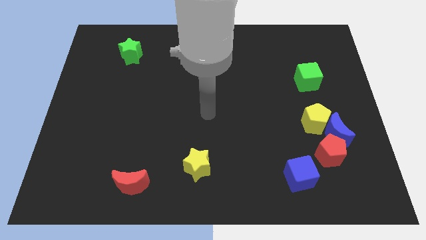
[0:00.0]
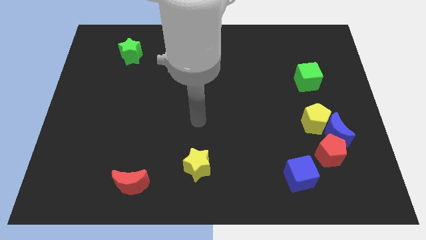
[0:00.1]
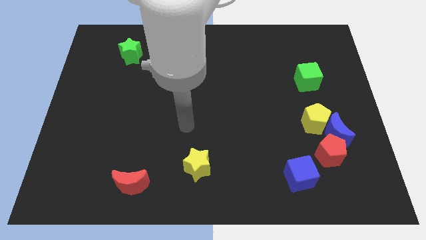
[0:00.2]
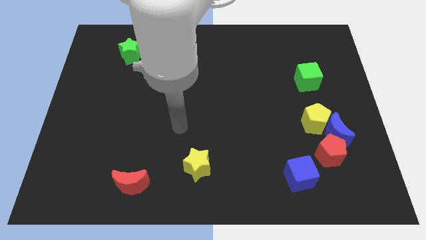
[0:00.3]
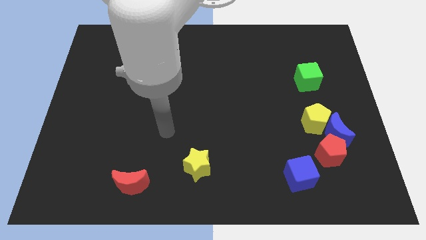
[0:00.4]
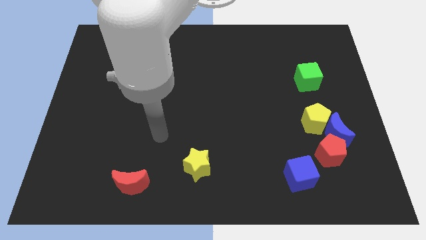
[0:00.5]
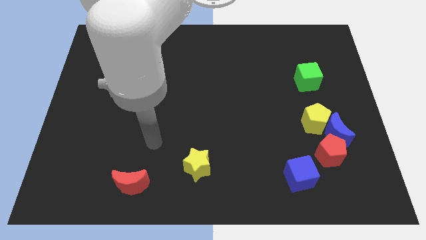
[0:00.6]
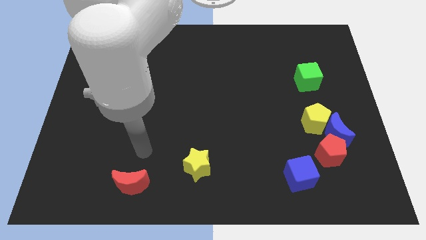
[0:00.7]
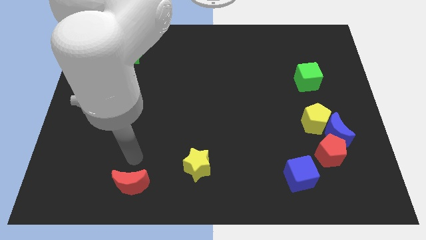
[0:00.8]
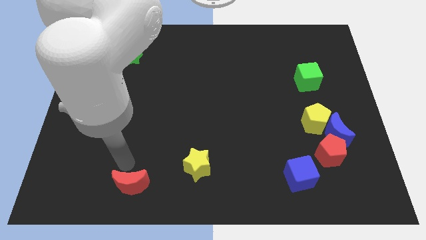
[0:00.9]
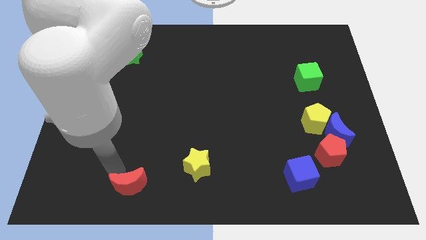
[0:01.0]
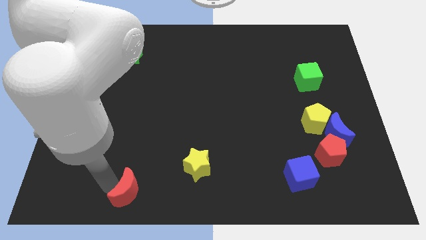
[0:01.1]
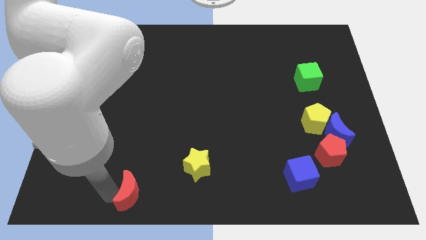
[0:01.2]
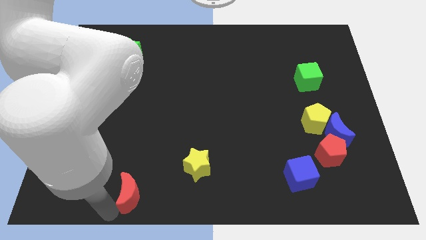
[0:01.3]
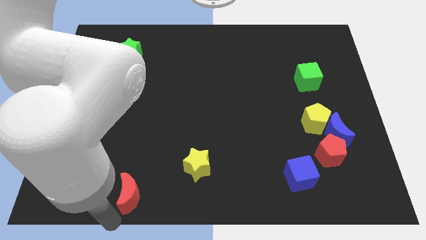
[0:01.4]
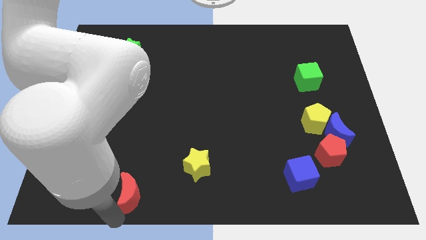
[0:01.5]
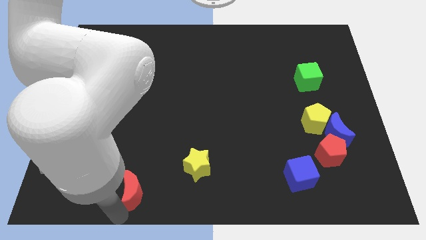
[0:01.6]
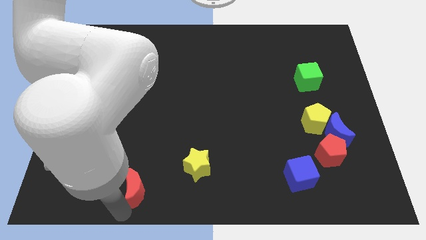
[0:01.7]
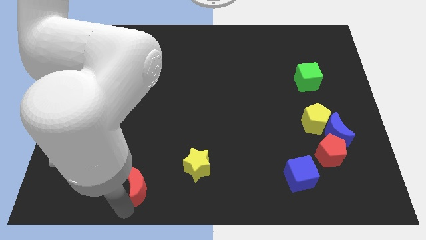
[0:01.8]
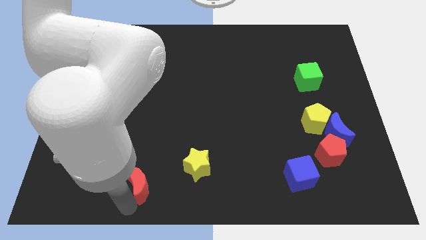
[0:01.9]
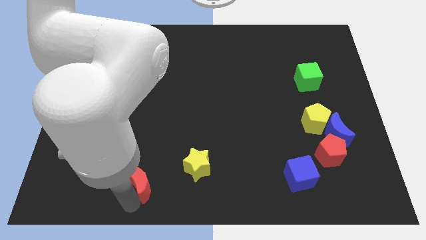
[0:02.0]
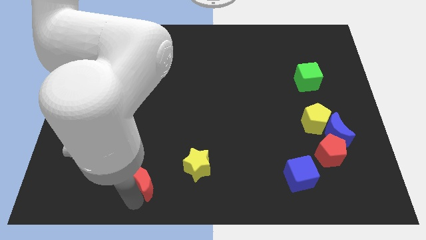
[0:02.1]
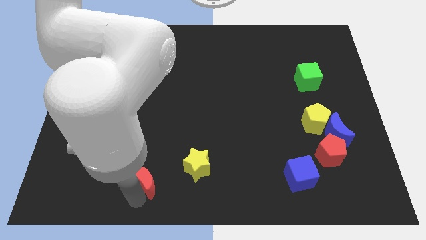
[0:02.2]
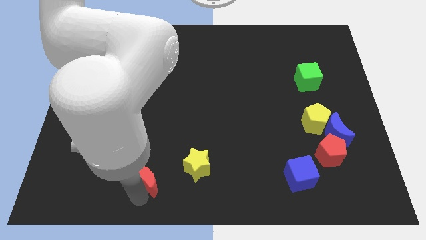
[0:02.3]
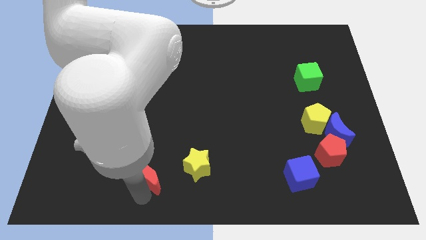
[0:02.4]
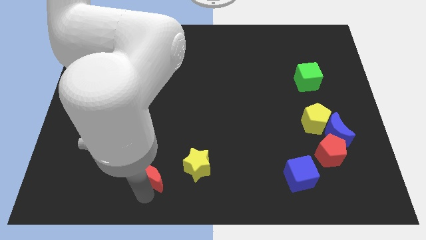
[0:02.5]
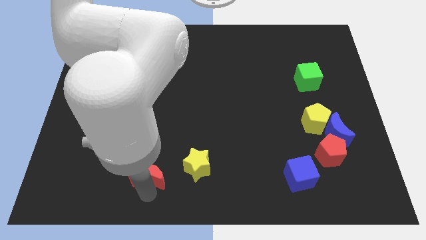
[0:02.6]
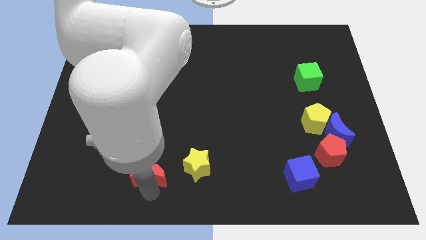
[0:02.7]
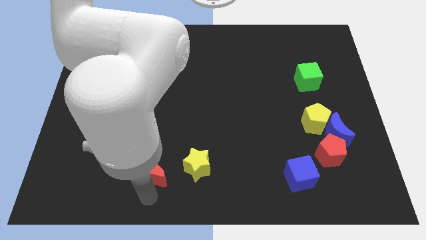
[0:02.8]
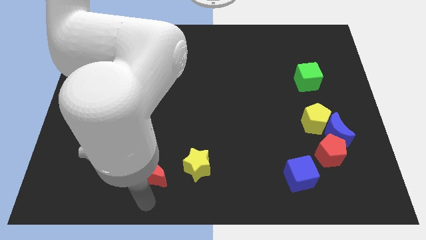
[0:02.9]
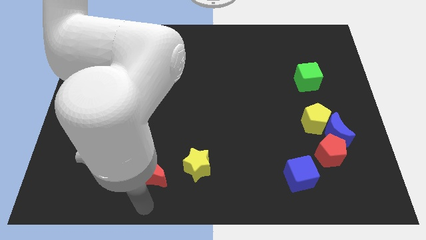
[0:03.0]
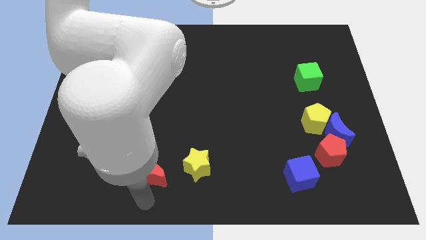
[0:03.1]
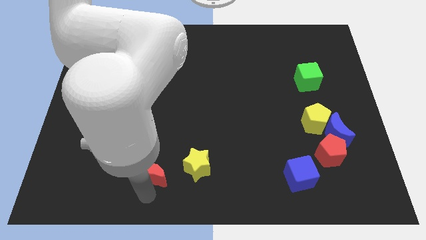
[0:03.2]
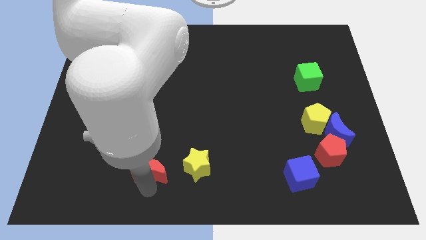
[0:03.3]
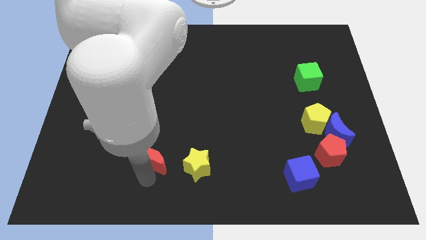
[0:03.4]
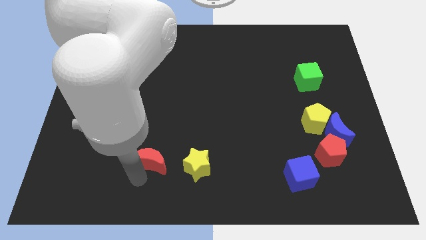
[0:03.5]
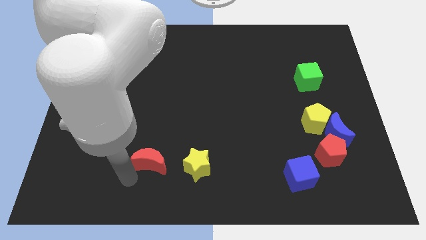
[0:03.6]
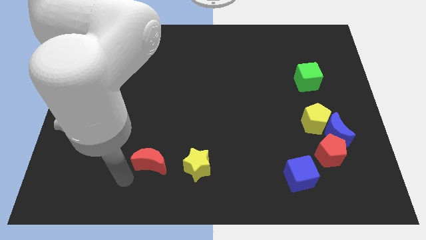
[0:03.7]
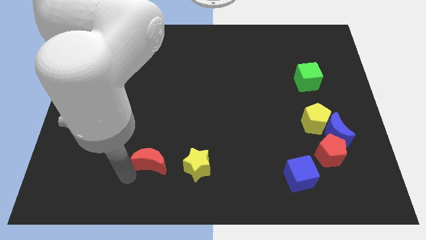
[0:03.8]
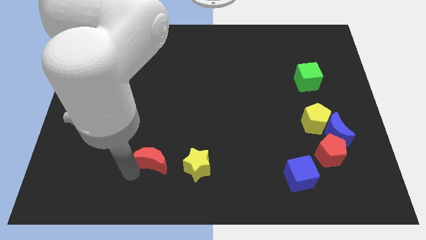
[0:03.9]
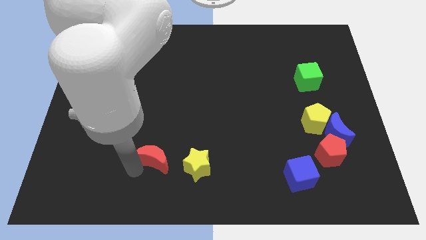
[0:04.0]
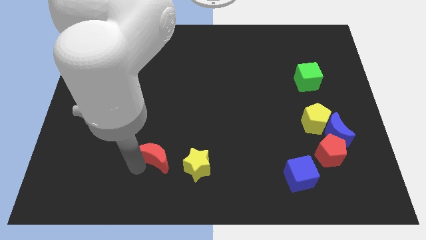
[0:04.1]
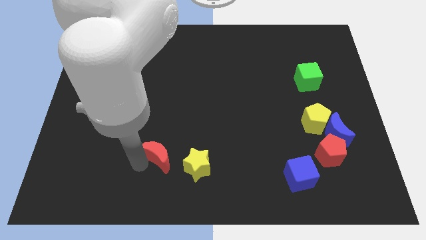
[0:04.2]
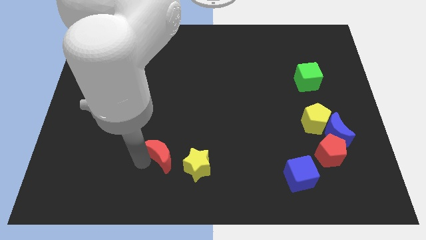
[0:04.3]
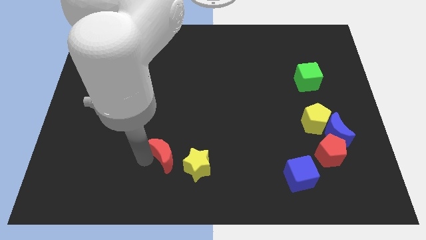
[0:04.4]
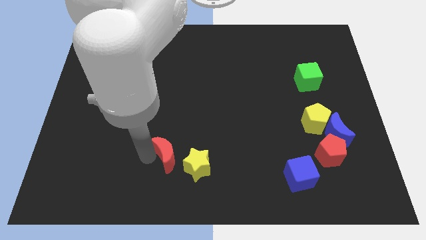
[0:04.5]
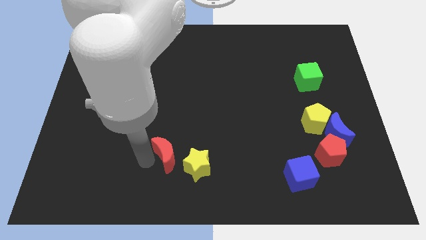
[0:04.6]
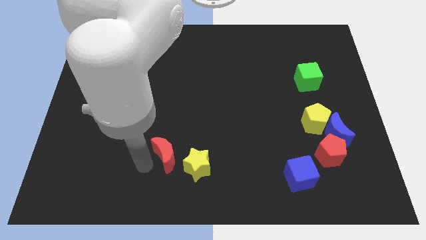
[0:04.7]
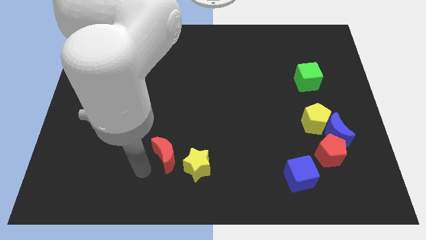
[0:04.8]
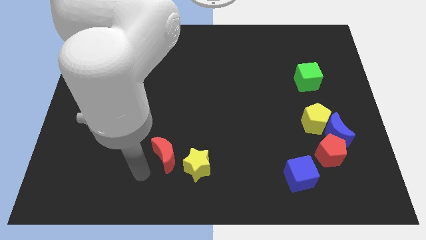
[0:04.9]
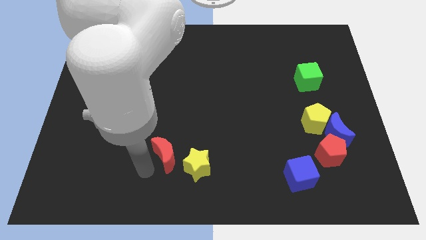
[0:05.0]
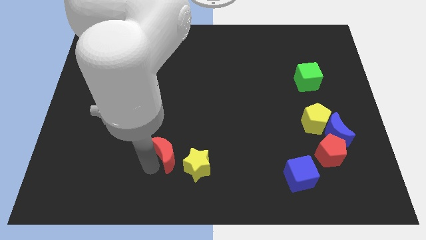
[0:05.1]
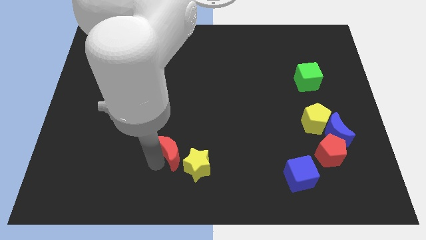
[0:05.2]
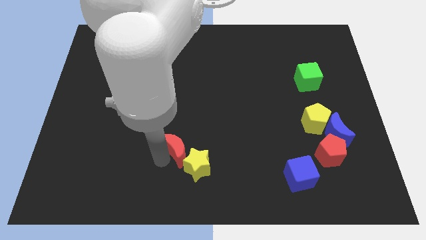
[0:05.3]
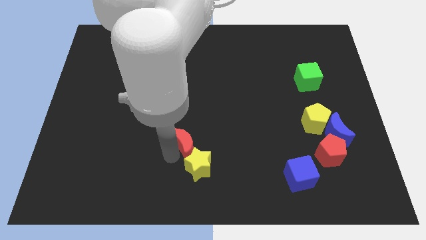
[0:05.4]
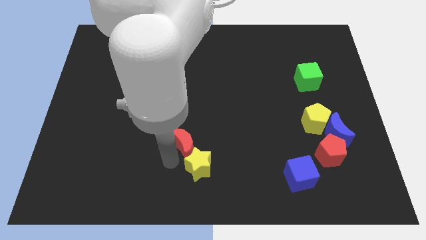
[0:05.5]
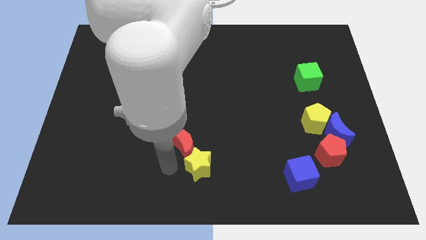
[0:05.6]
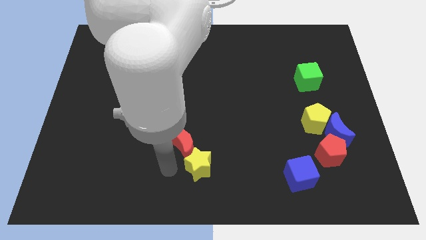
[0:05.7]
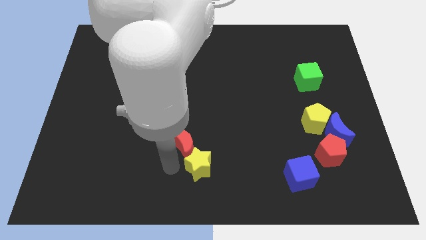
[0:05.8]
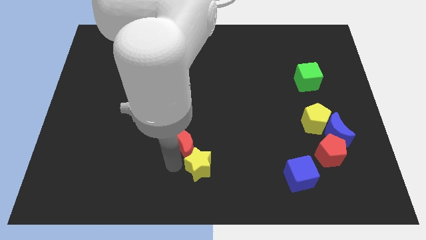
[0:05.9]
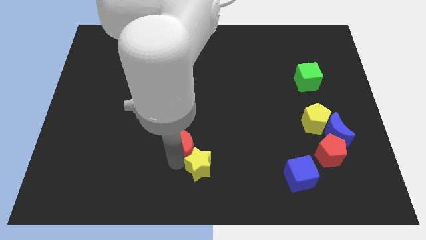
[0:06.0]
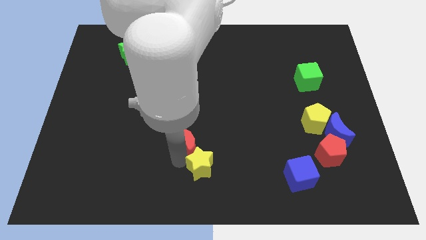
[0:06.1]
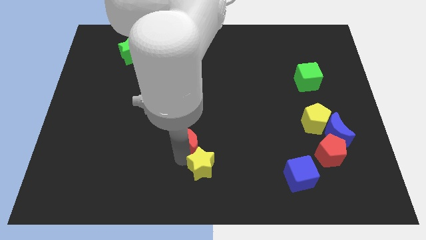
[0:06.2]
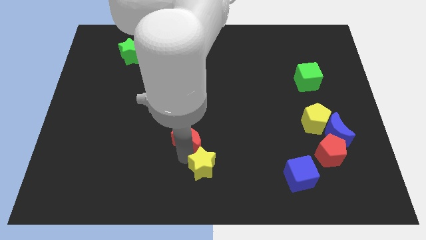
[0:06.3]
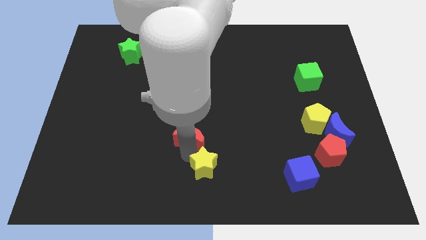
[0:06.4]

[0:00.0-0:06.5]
slide the red moon to the center
